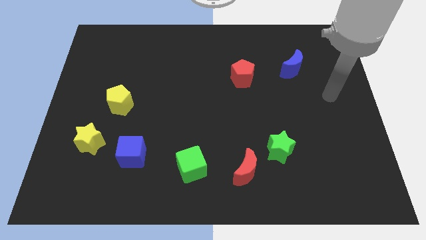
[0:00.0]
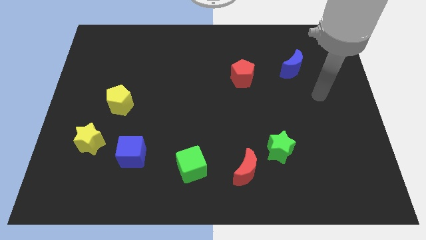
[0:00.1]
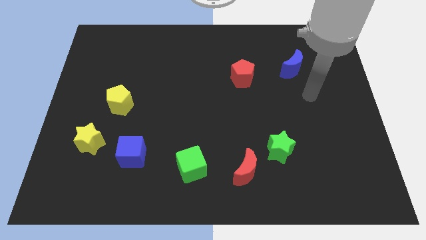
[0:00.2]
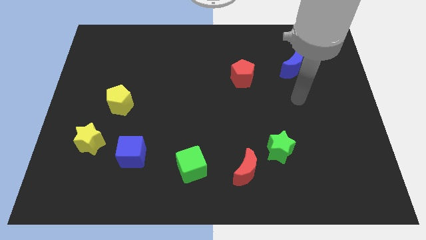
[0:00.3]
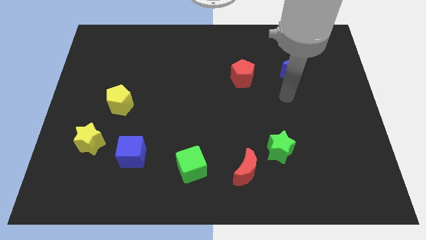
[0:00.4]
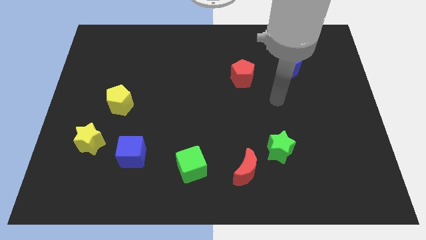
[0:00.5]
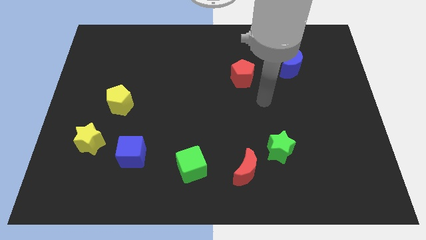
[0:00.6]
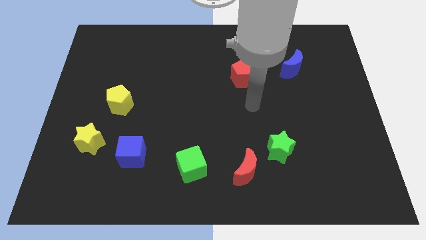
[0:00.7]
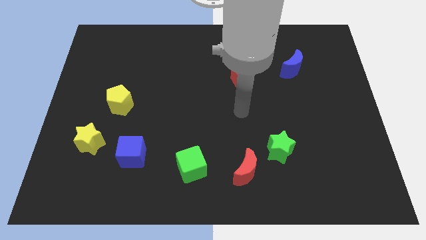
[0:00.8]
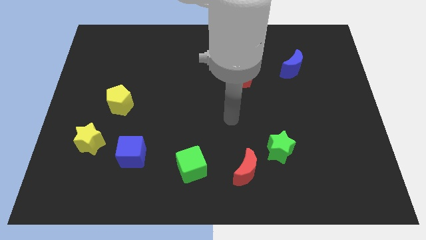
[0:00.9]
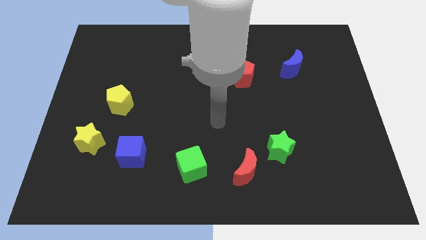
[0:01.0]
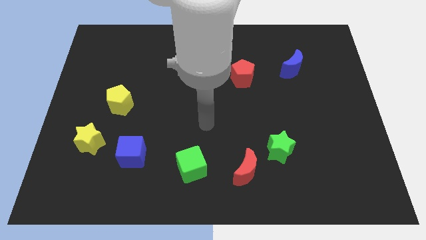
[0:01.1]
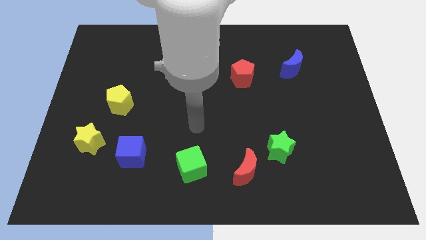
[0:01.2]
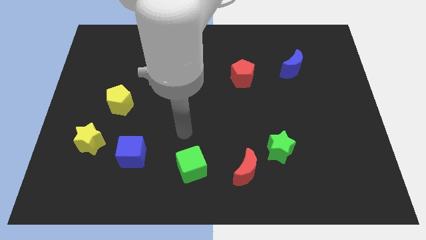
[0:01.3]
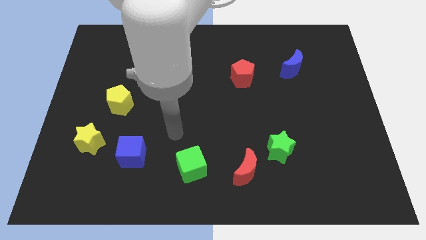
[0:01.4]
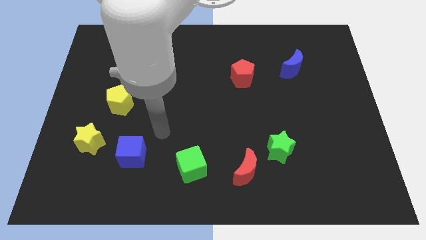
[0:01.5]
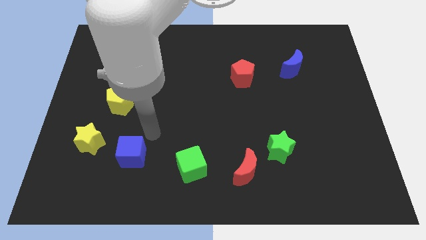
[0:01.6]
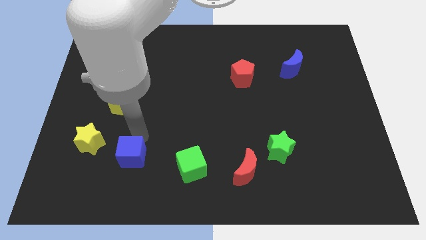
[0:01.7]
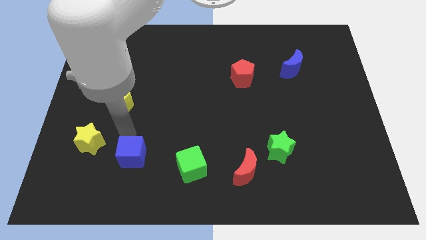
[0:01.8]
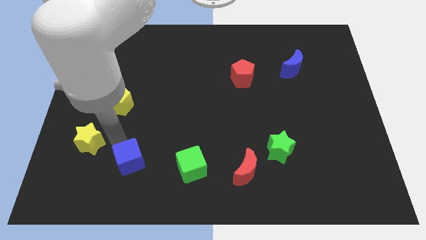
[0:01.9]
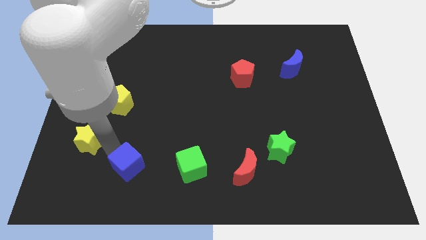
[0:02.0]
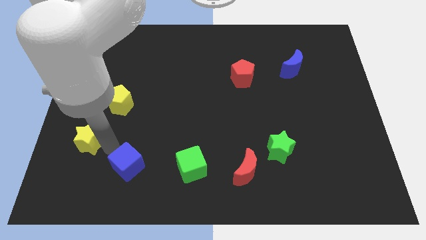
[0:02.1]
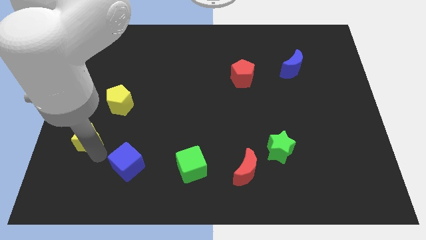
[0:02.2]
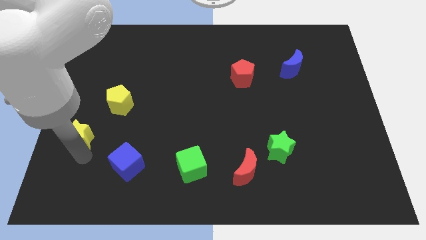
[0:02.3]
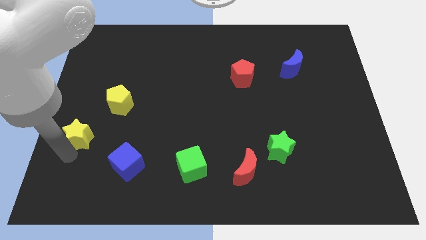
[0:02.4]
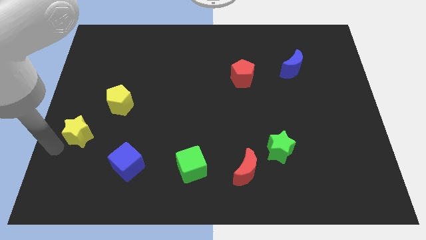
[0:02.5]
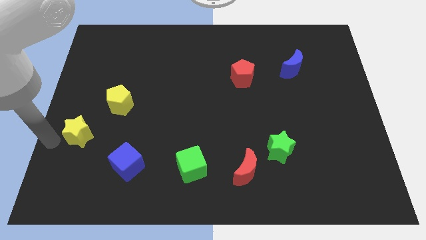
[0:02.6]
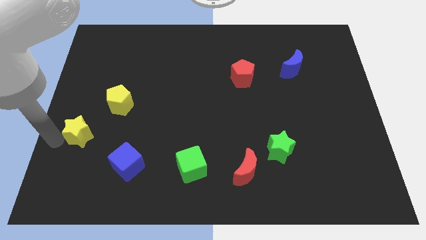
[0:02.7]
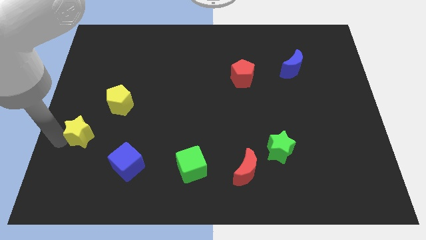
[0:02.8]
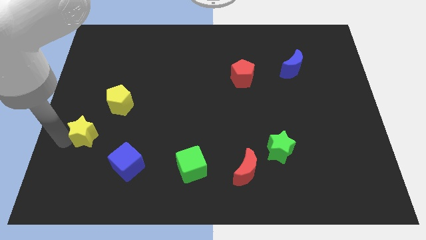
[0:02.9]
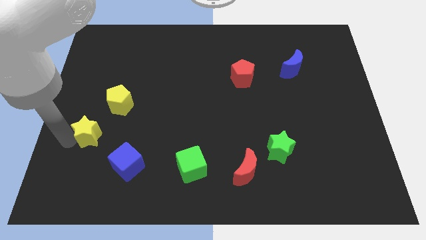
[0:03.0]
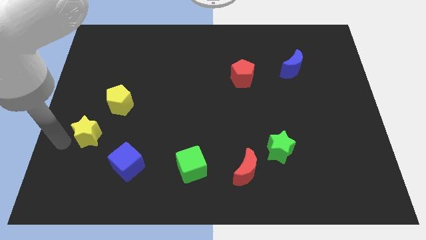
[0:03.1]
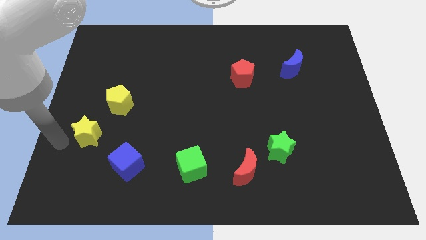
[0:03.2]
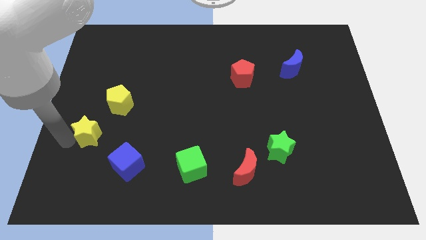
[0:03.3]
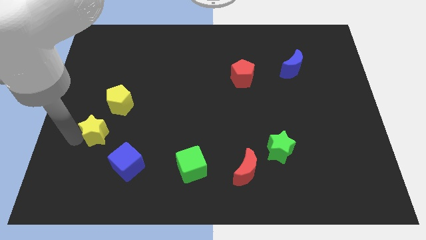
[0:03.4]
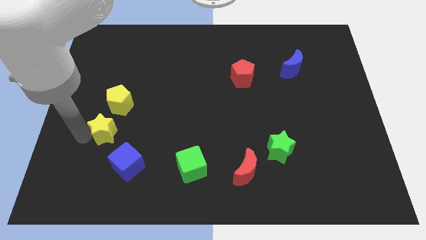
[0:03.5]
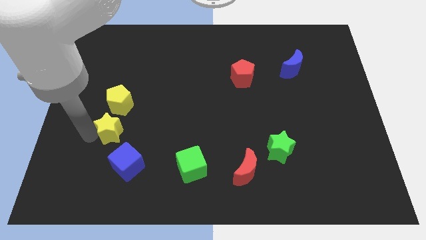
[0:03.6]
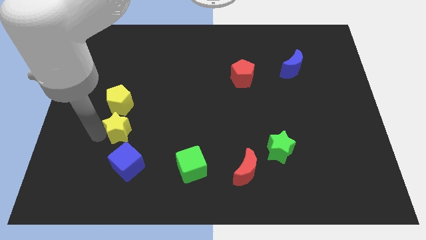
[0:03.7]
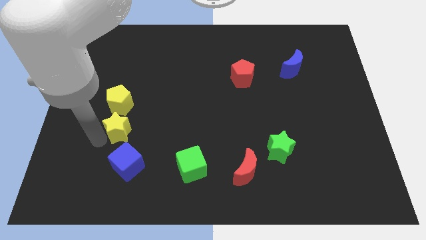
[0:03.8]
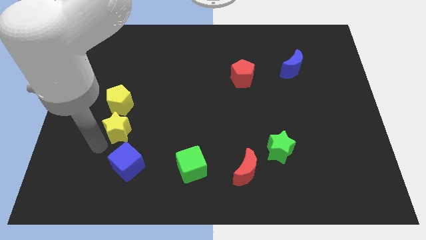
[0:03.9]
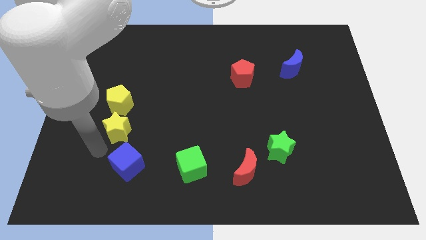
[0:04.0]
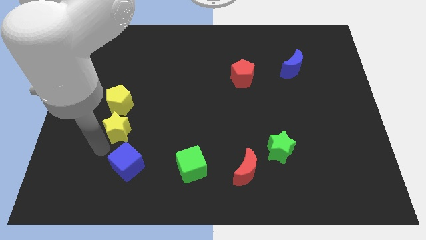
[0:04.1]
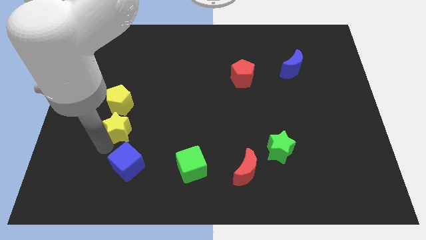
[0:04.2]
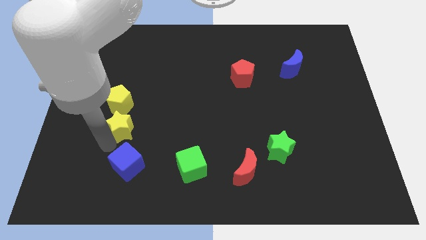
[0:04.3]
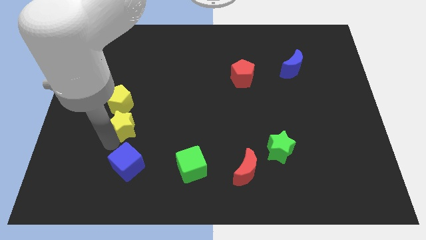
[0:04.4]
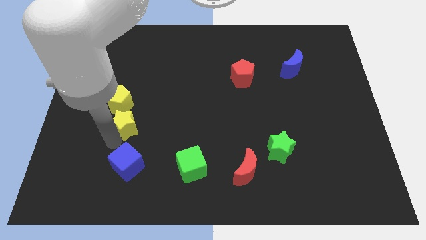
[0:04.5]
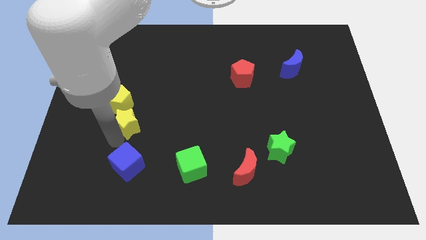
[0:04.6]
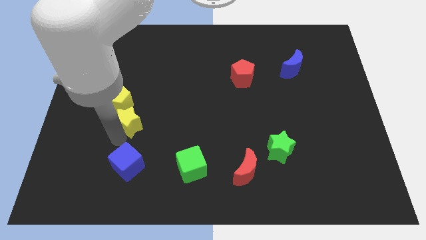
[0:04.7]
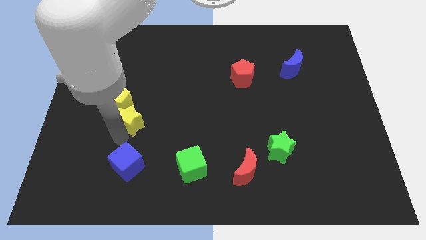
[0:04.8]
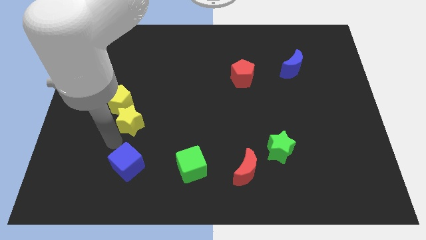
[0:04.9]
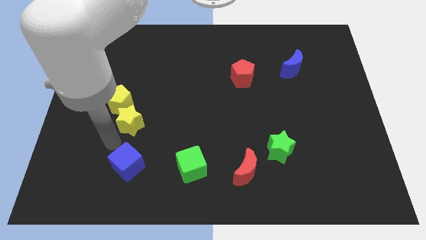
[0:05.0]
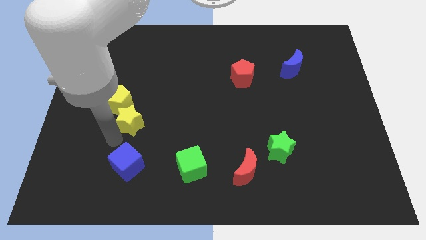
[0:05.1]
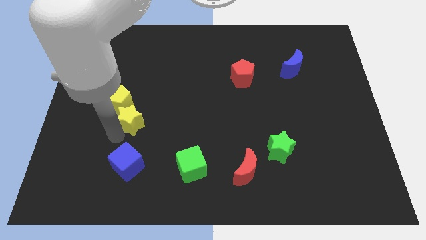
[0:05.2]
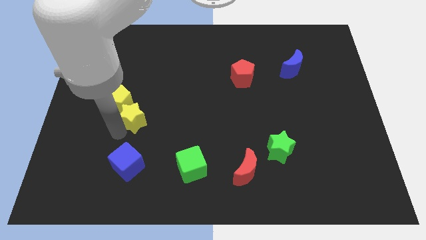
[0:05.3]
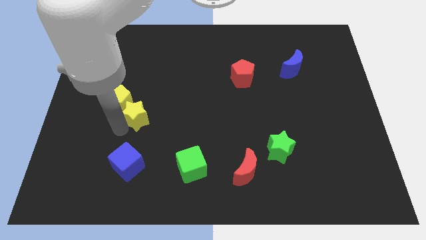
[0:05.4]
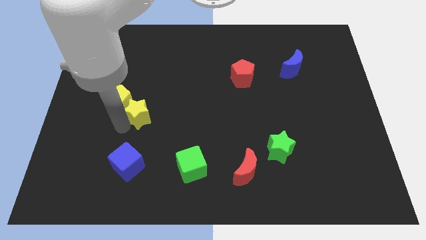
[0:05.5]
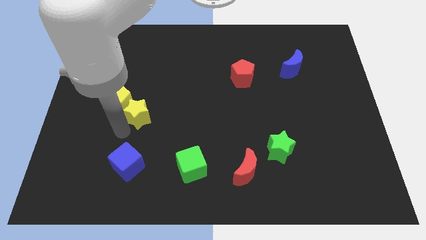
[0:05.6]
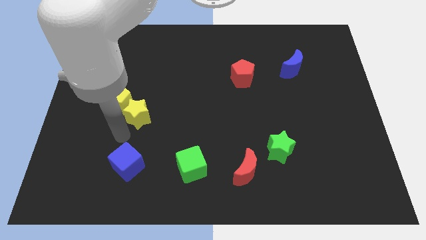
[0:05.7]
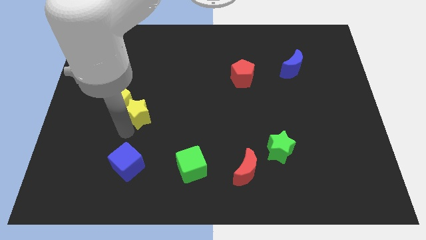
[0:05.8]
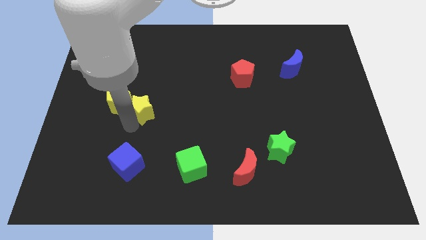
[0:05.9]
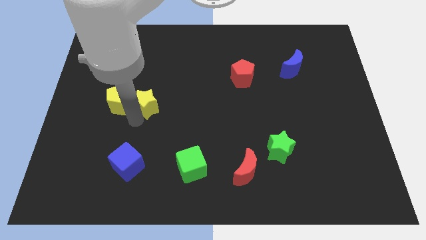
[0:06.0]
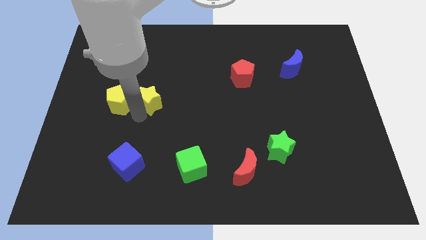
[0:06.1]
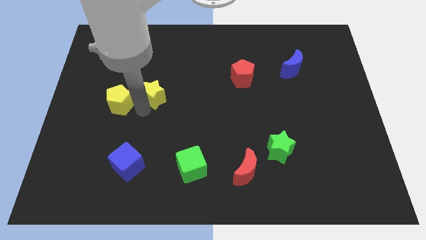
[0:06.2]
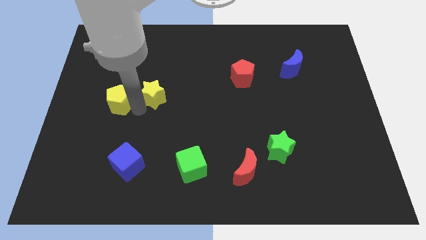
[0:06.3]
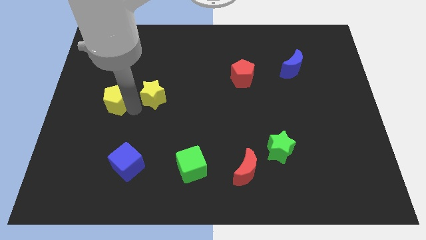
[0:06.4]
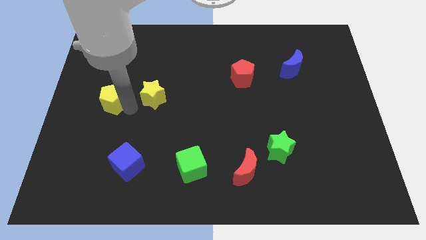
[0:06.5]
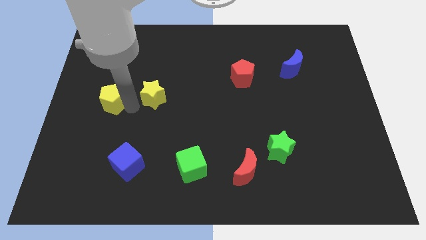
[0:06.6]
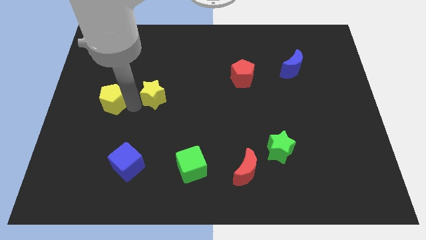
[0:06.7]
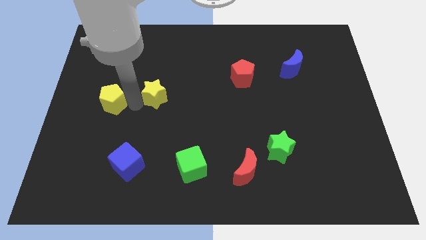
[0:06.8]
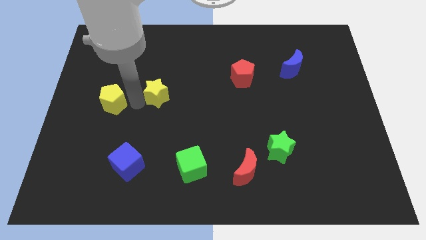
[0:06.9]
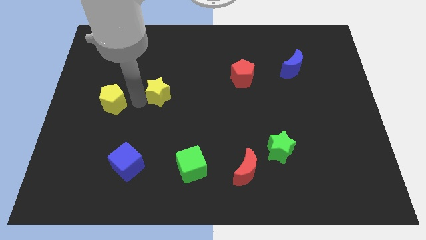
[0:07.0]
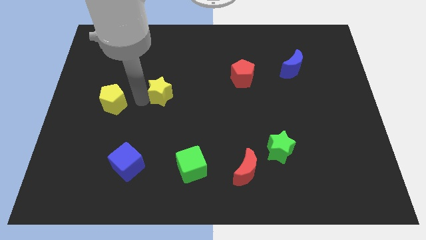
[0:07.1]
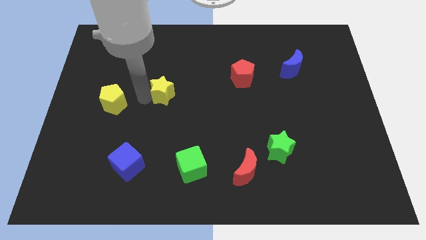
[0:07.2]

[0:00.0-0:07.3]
move the yellow star up and then right

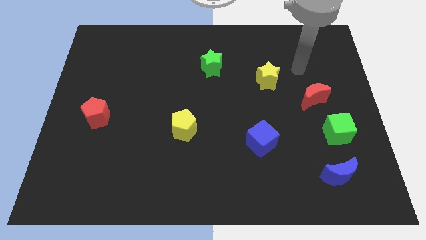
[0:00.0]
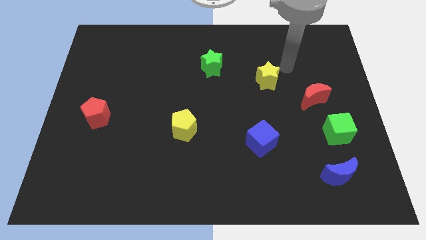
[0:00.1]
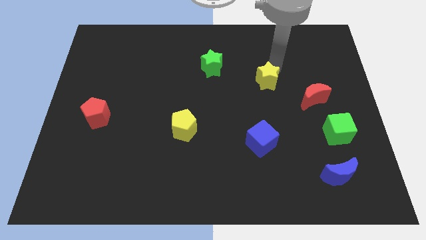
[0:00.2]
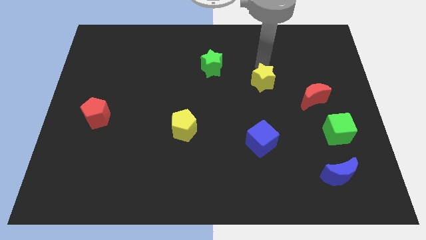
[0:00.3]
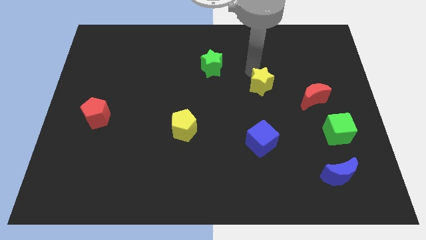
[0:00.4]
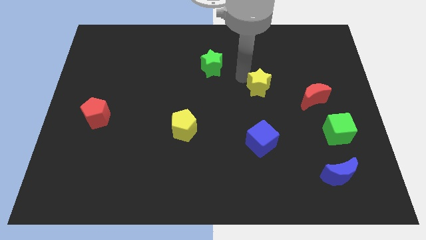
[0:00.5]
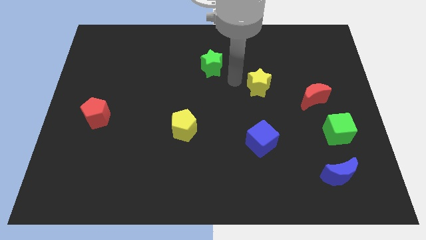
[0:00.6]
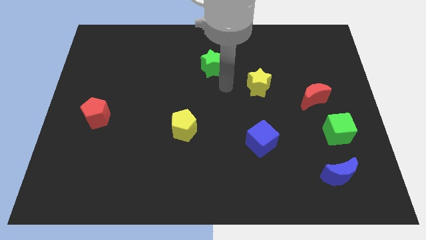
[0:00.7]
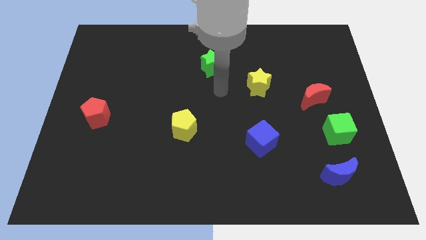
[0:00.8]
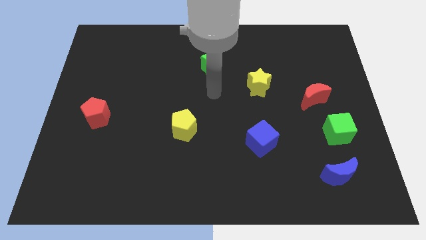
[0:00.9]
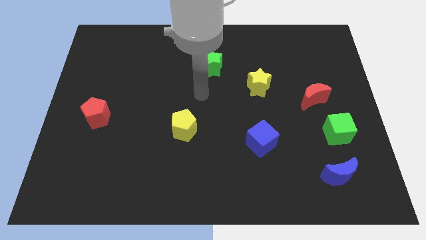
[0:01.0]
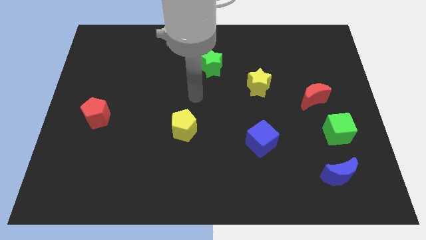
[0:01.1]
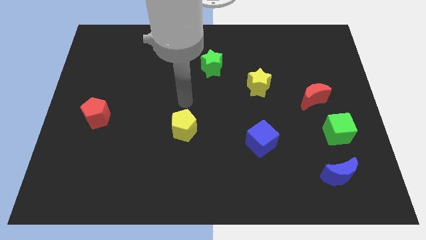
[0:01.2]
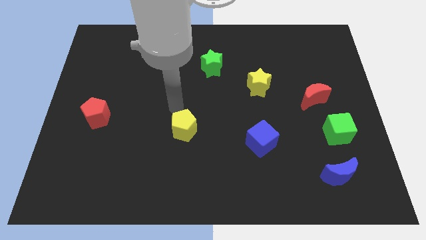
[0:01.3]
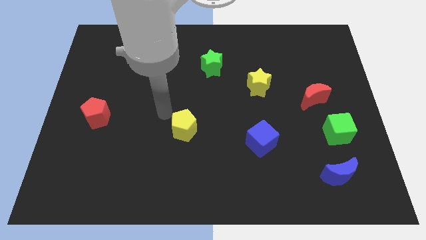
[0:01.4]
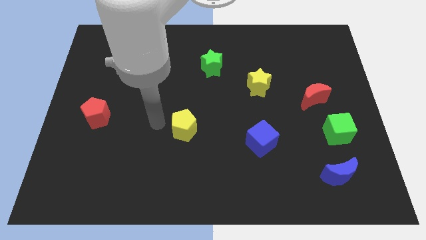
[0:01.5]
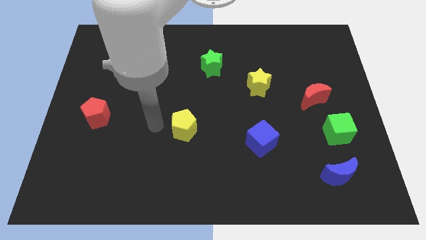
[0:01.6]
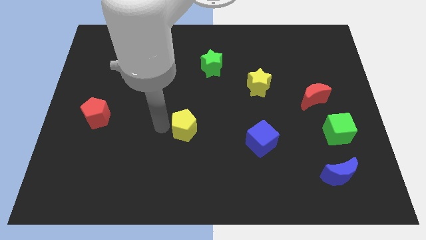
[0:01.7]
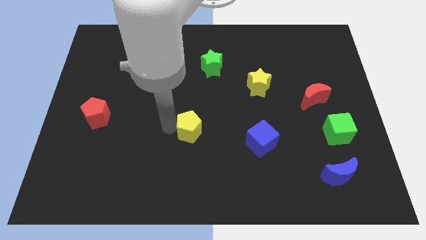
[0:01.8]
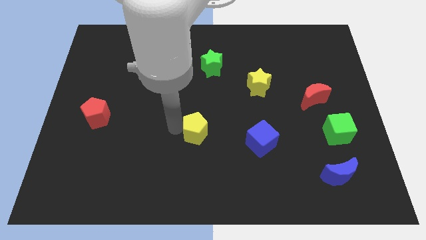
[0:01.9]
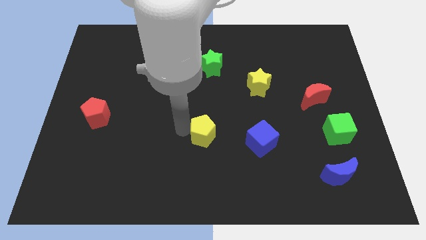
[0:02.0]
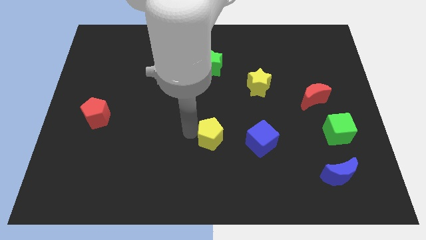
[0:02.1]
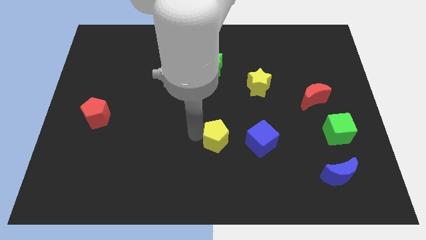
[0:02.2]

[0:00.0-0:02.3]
slide the yellow pentagon a little to the right
